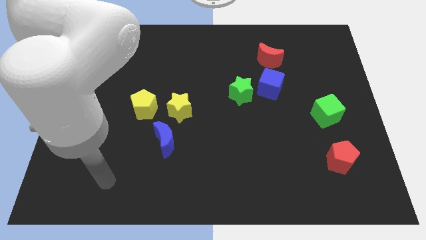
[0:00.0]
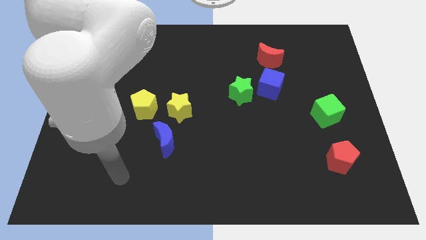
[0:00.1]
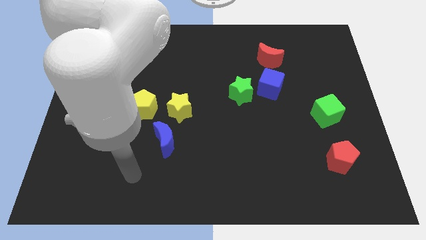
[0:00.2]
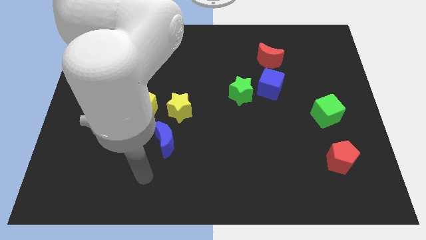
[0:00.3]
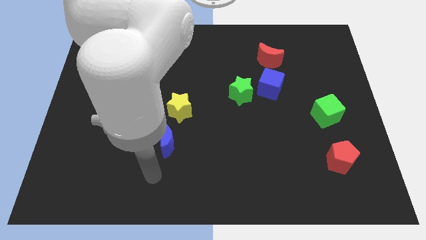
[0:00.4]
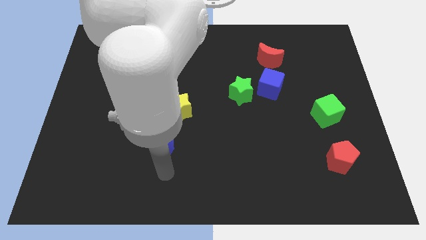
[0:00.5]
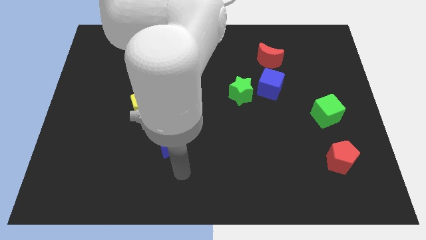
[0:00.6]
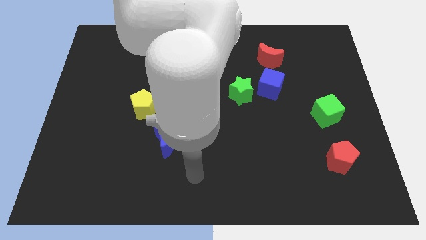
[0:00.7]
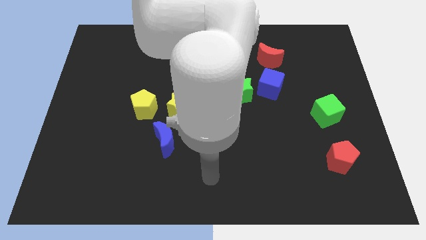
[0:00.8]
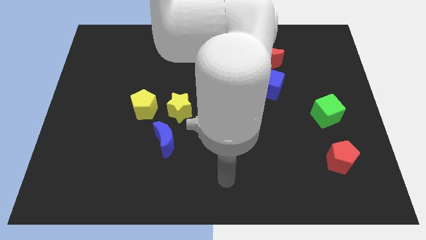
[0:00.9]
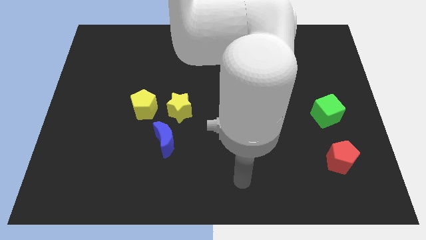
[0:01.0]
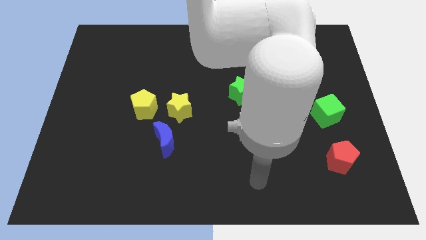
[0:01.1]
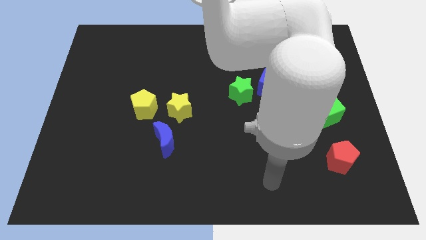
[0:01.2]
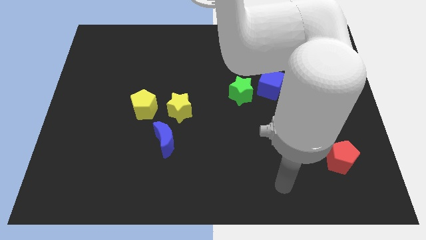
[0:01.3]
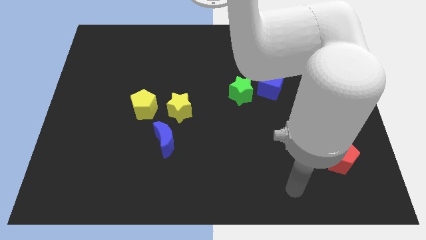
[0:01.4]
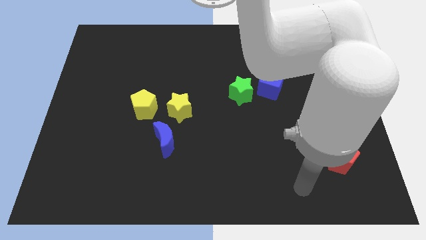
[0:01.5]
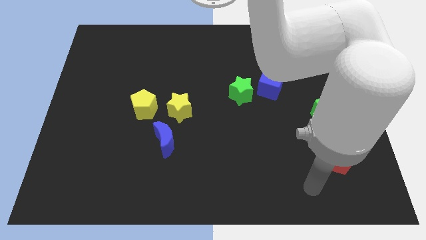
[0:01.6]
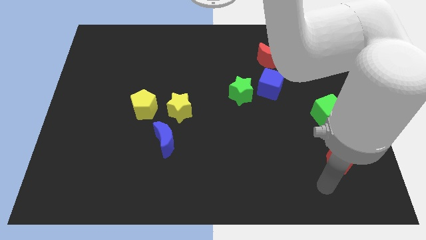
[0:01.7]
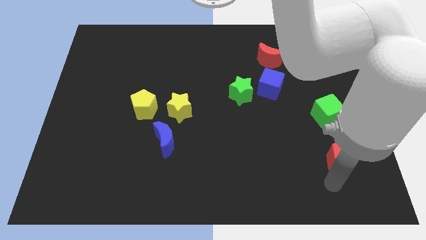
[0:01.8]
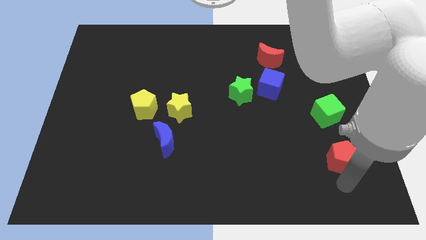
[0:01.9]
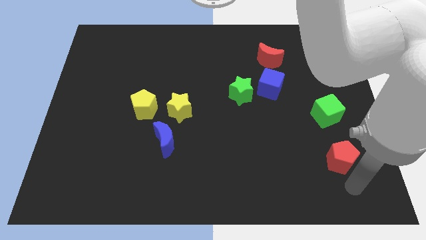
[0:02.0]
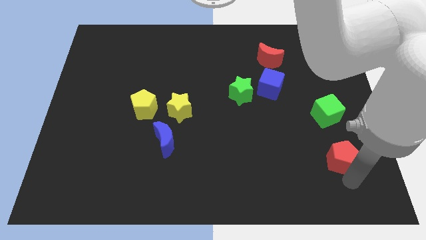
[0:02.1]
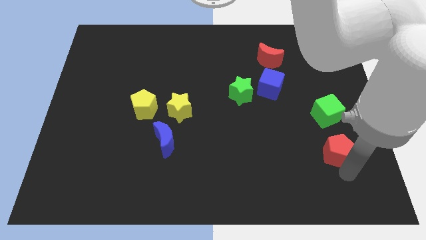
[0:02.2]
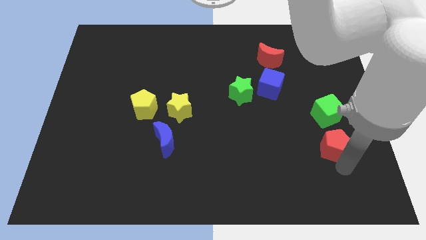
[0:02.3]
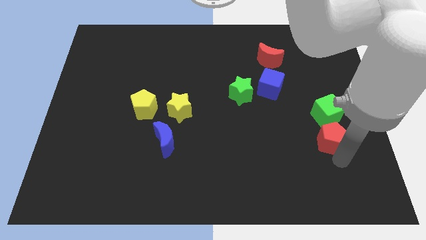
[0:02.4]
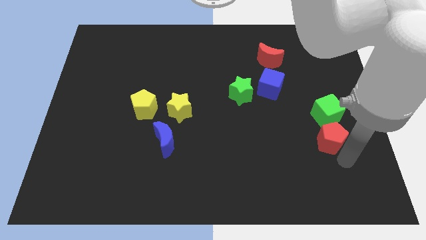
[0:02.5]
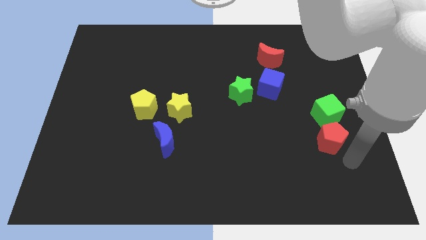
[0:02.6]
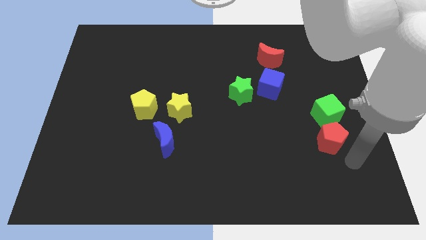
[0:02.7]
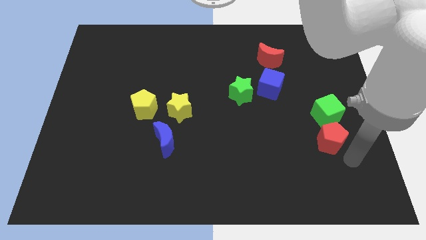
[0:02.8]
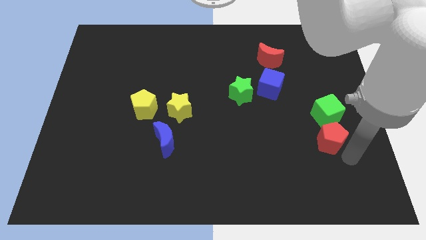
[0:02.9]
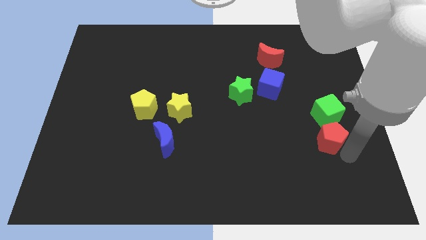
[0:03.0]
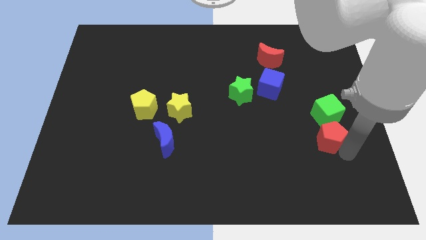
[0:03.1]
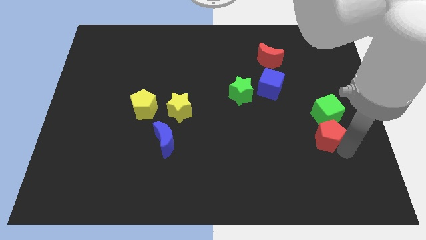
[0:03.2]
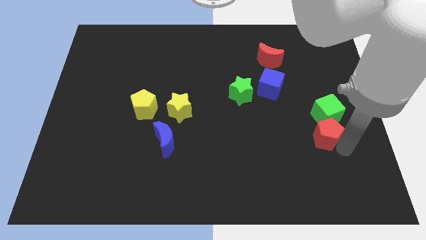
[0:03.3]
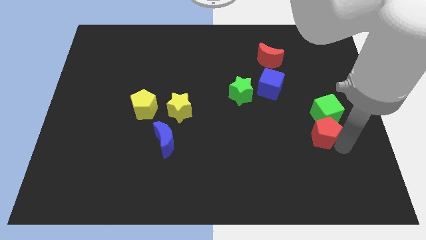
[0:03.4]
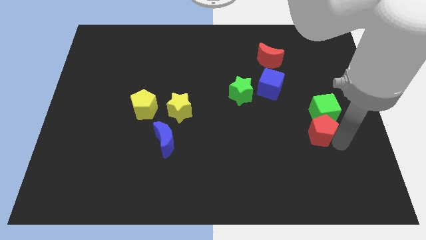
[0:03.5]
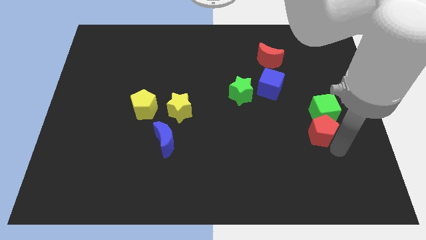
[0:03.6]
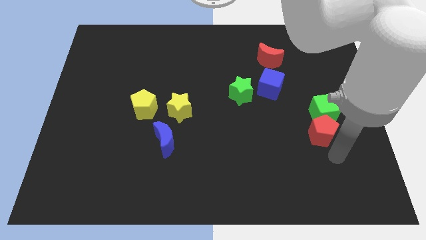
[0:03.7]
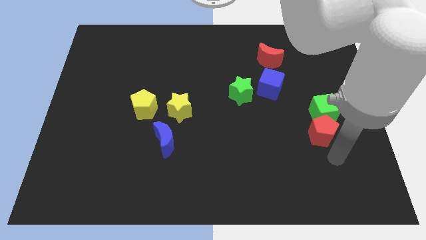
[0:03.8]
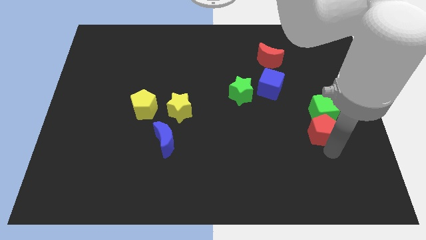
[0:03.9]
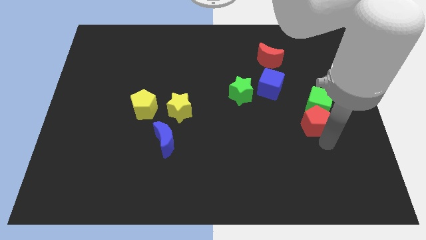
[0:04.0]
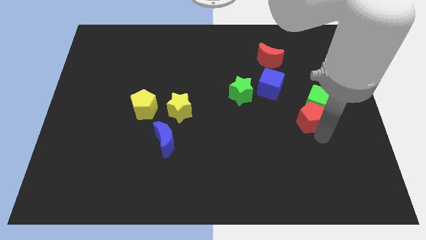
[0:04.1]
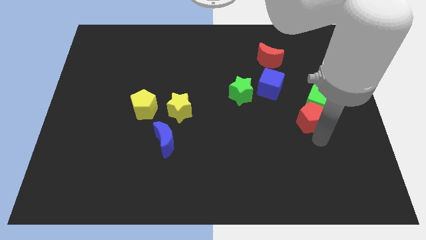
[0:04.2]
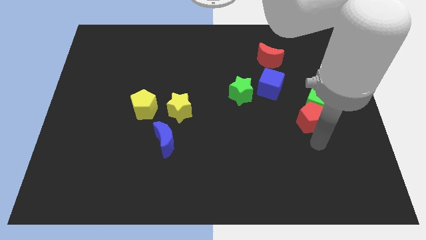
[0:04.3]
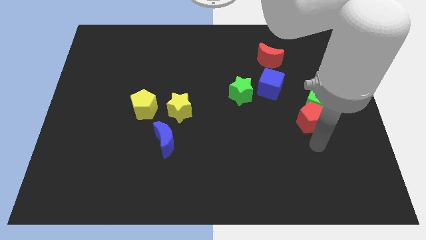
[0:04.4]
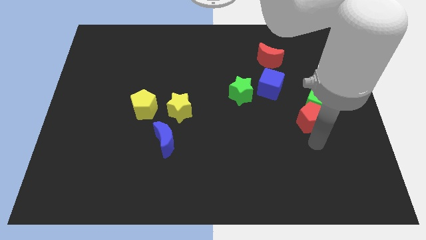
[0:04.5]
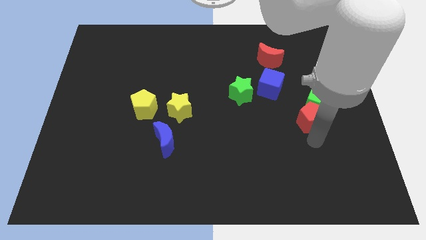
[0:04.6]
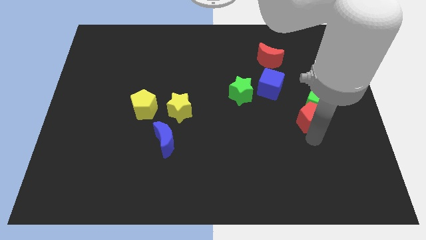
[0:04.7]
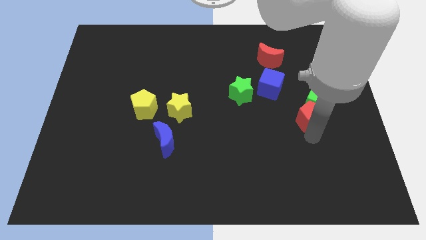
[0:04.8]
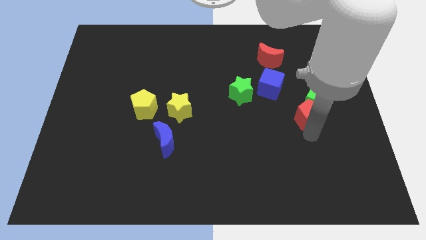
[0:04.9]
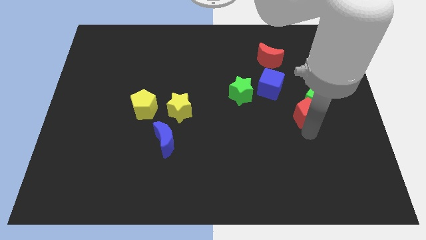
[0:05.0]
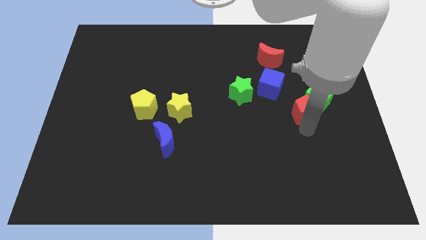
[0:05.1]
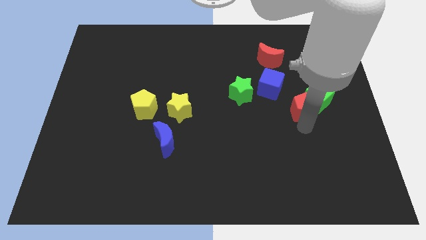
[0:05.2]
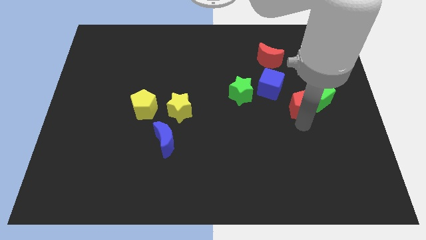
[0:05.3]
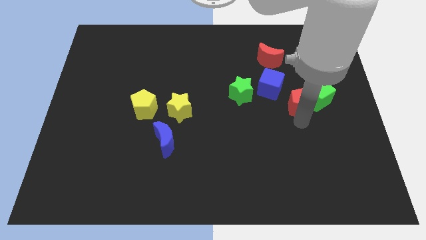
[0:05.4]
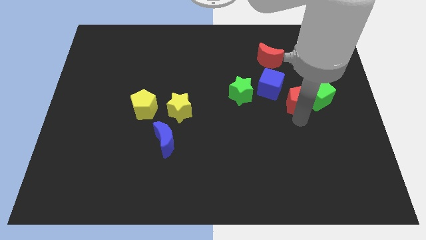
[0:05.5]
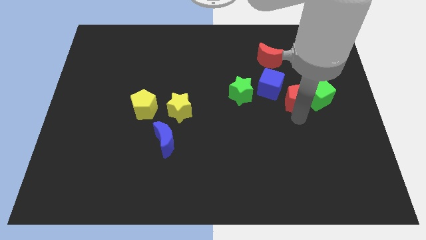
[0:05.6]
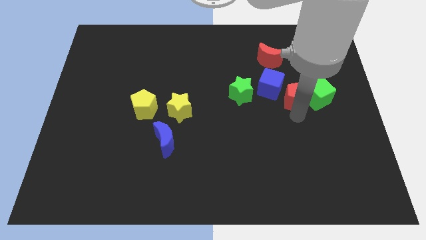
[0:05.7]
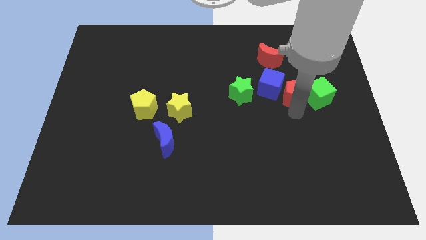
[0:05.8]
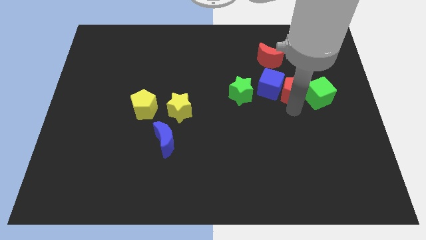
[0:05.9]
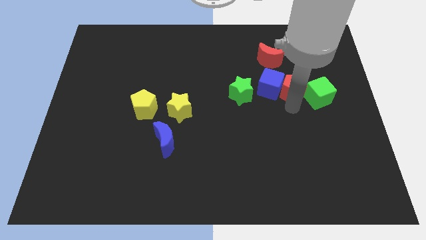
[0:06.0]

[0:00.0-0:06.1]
put the red pentagon diagonally up and to the right of the blue cube

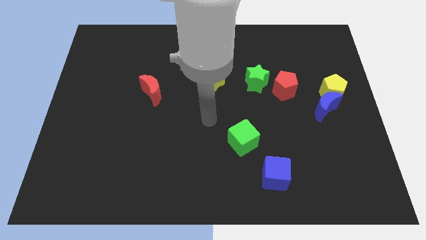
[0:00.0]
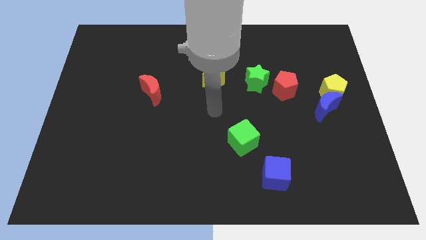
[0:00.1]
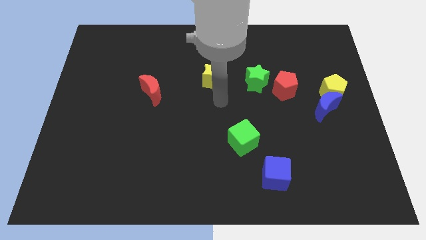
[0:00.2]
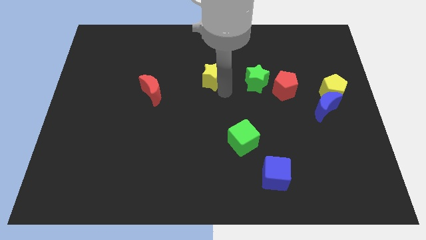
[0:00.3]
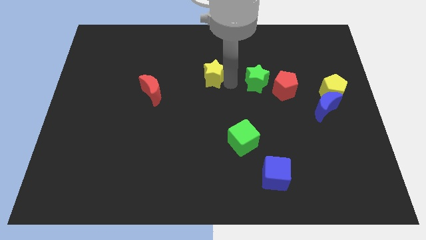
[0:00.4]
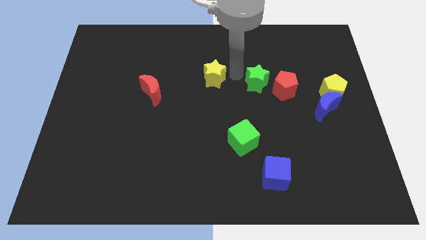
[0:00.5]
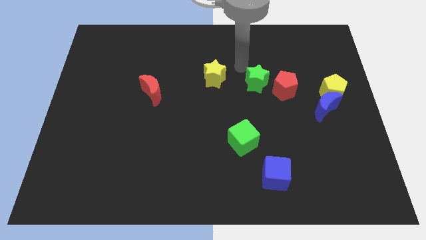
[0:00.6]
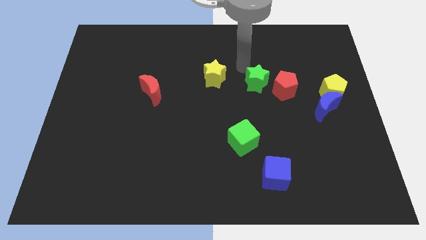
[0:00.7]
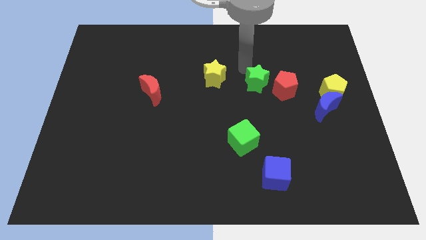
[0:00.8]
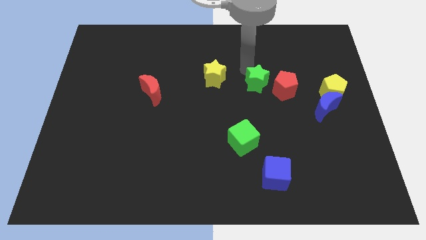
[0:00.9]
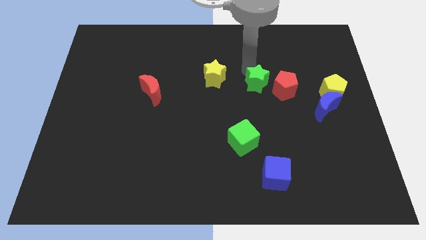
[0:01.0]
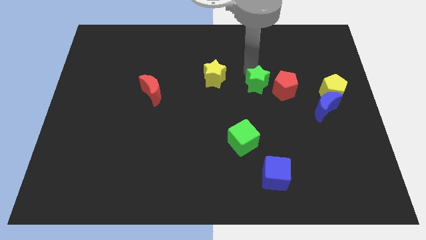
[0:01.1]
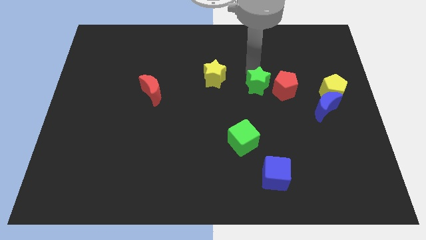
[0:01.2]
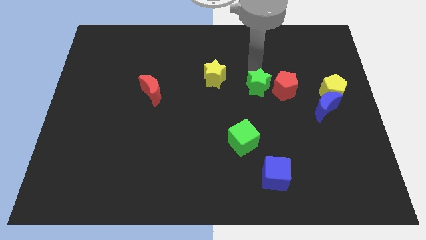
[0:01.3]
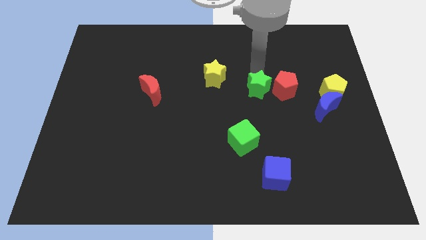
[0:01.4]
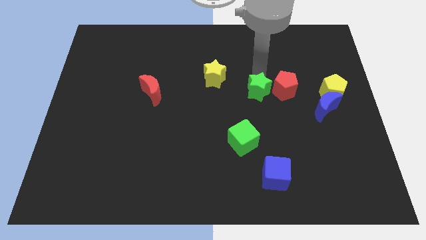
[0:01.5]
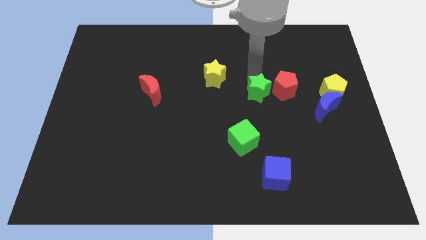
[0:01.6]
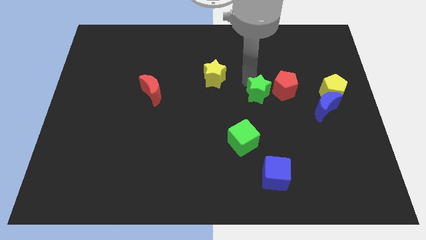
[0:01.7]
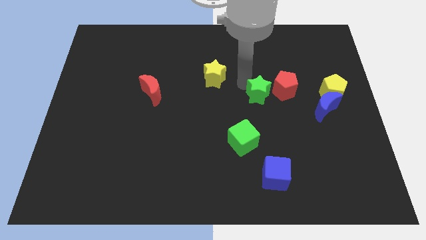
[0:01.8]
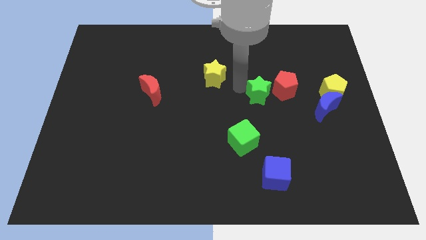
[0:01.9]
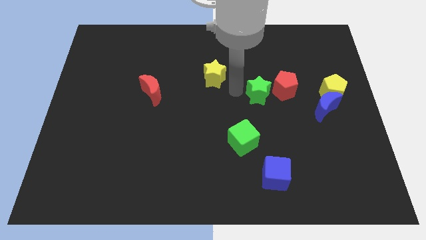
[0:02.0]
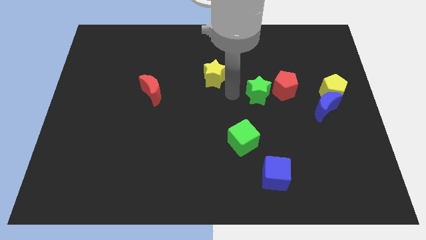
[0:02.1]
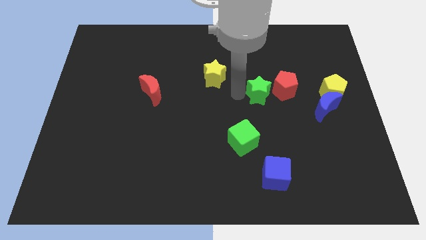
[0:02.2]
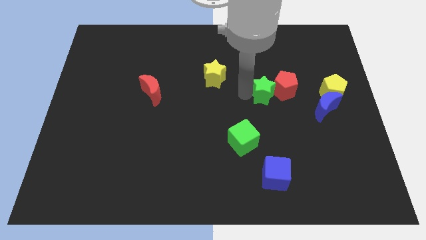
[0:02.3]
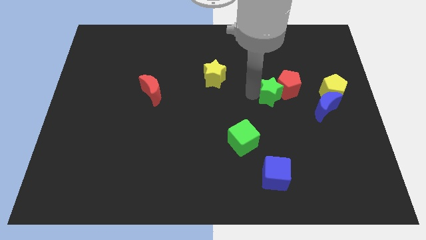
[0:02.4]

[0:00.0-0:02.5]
slide the green star to the left side of the yellow pentagon
